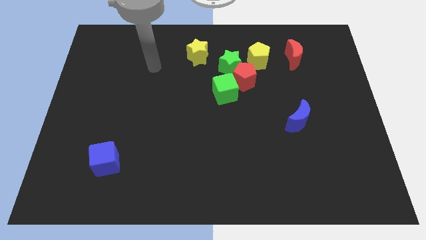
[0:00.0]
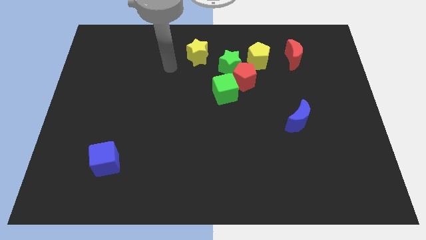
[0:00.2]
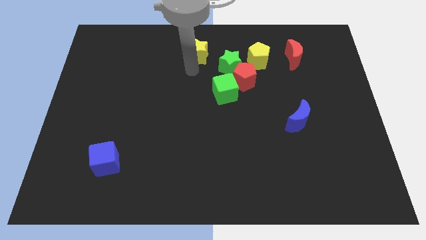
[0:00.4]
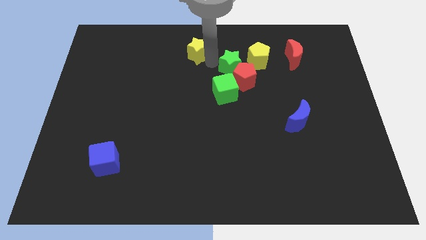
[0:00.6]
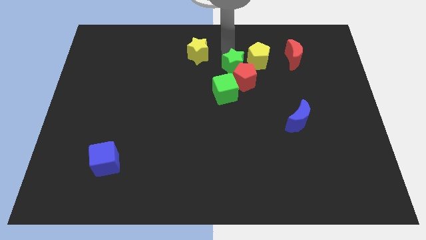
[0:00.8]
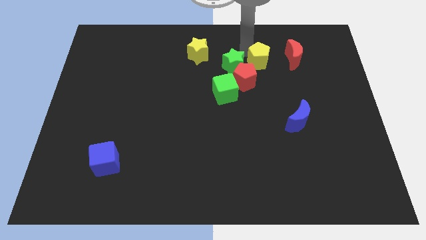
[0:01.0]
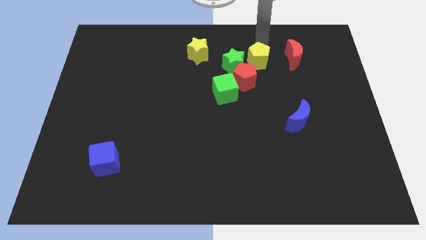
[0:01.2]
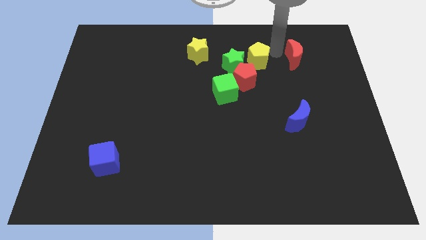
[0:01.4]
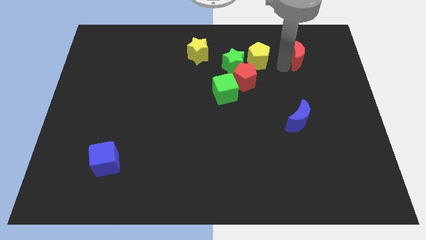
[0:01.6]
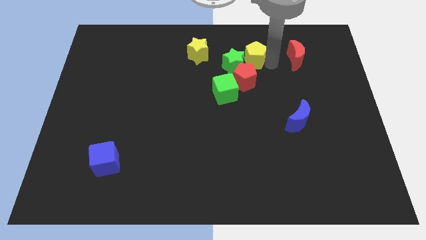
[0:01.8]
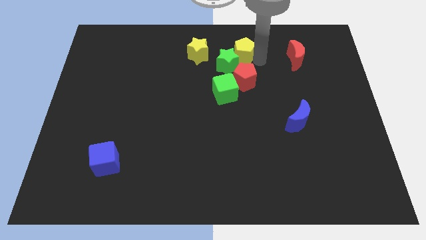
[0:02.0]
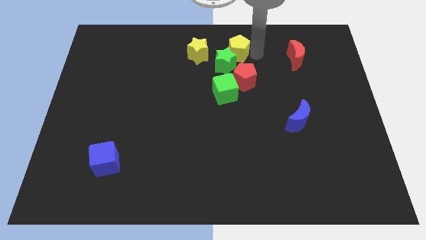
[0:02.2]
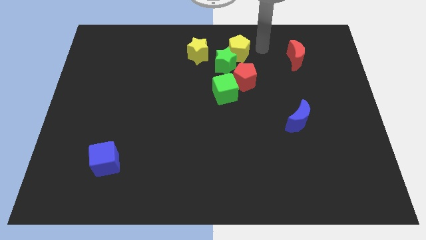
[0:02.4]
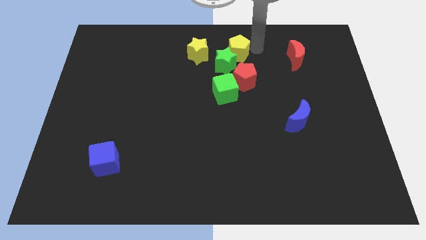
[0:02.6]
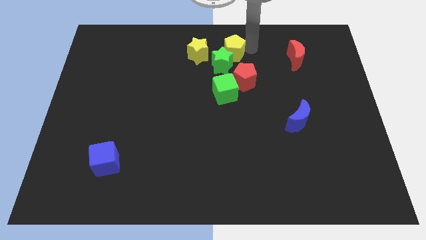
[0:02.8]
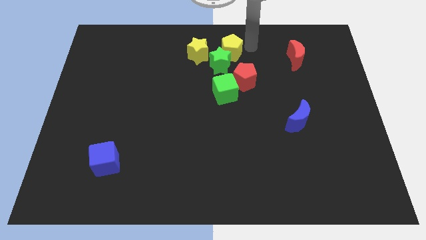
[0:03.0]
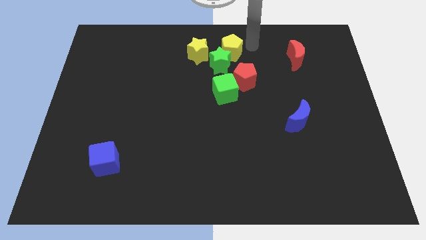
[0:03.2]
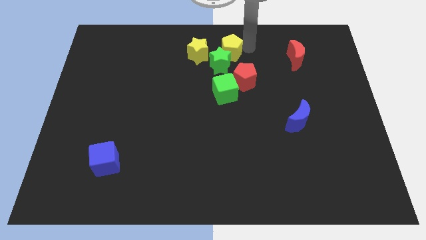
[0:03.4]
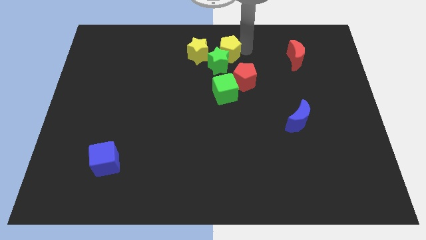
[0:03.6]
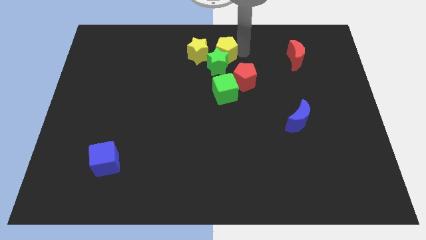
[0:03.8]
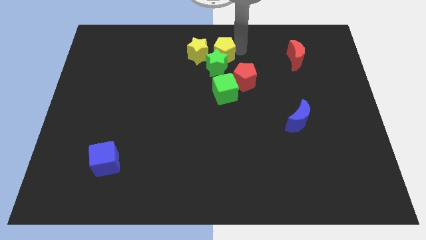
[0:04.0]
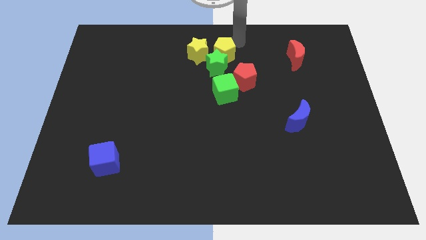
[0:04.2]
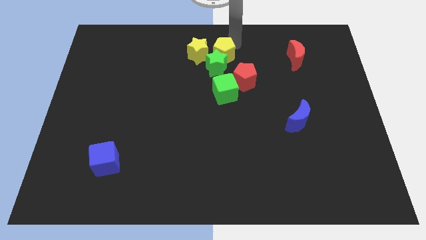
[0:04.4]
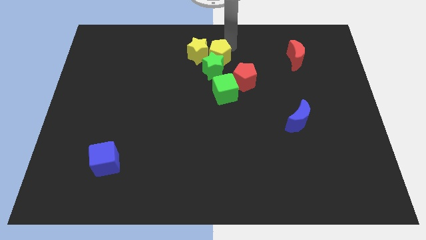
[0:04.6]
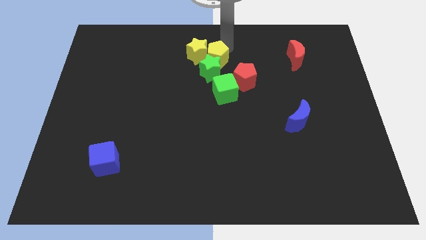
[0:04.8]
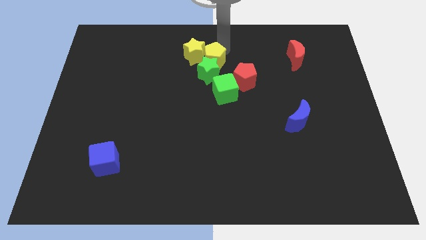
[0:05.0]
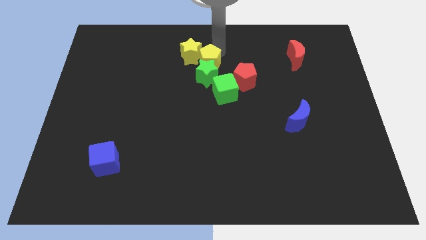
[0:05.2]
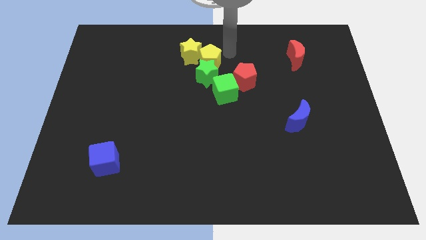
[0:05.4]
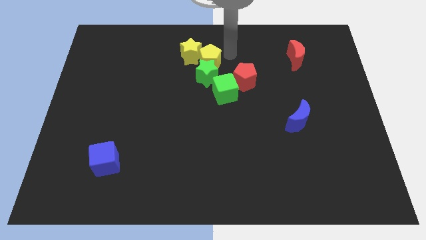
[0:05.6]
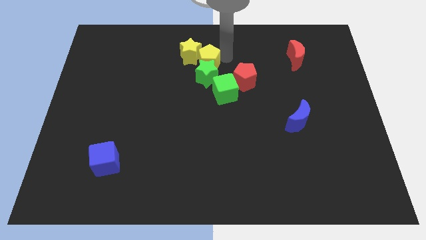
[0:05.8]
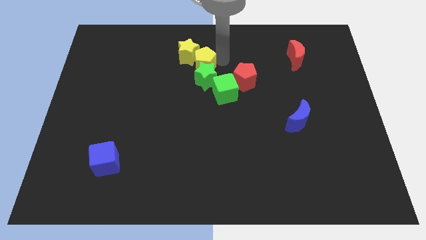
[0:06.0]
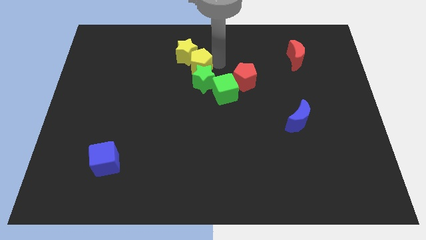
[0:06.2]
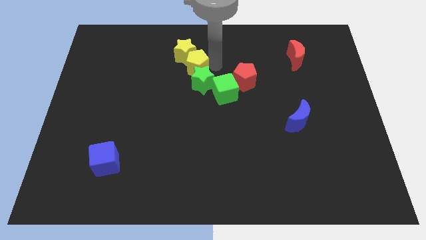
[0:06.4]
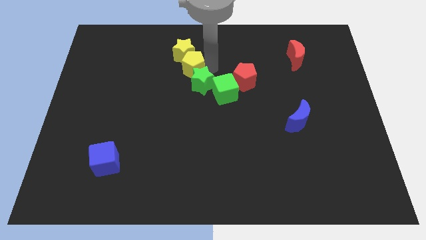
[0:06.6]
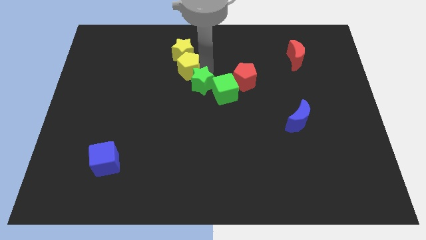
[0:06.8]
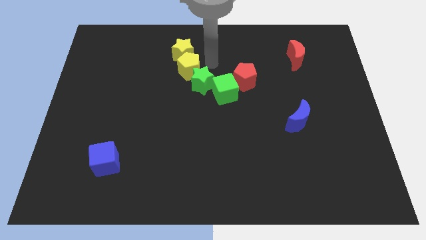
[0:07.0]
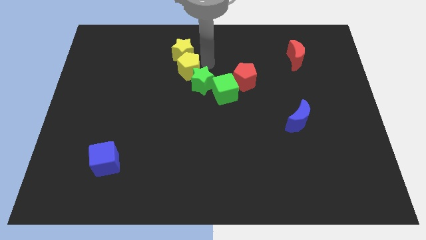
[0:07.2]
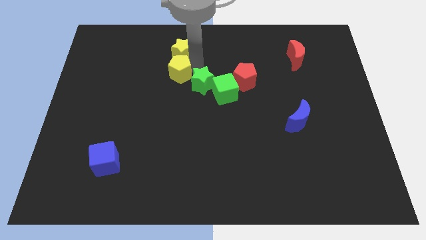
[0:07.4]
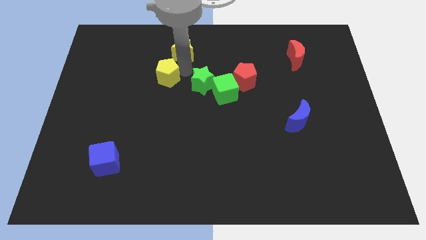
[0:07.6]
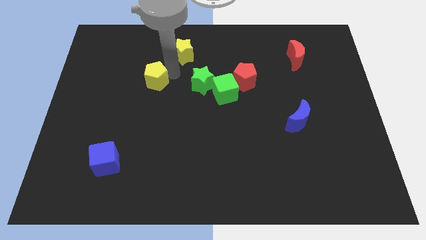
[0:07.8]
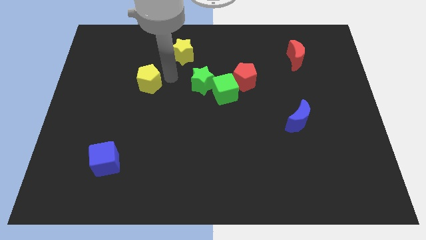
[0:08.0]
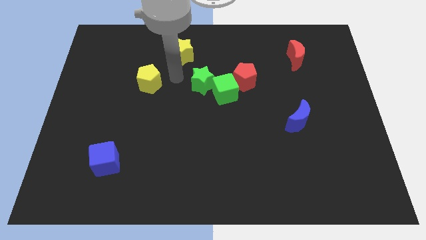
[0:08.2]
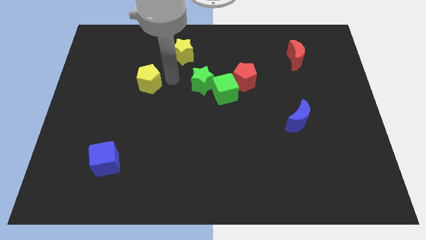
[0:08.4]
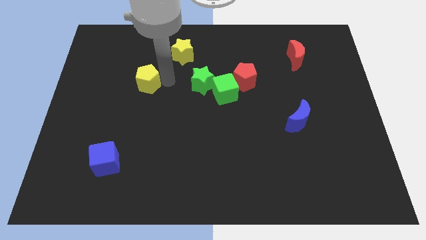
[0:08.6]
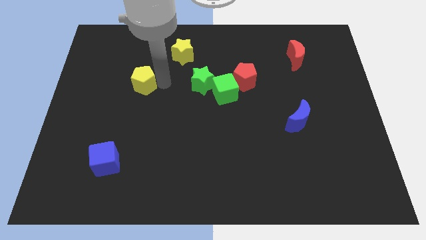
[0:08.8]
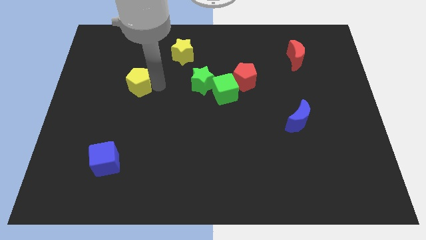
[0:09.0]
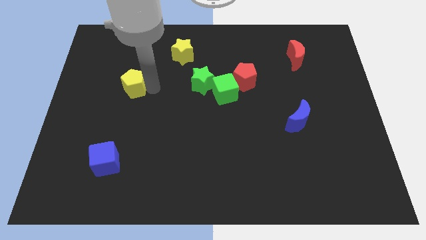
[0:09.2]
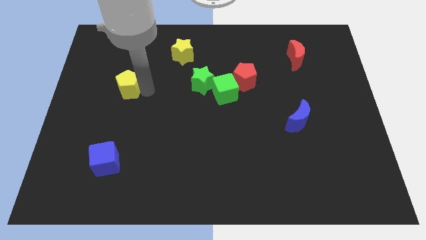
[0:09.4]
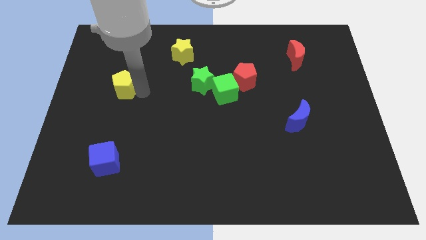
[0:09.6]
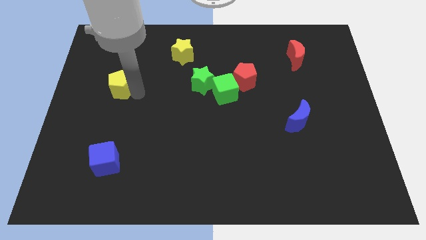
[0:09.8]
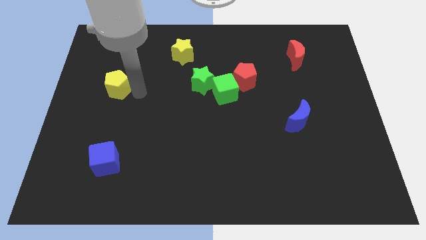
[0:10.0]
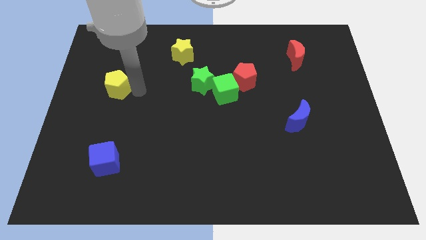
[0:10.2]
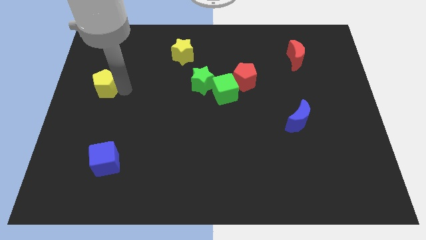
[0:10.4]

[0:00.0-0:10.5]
put the yellow pentagon to the left side of the board

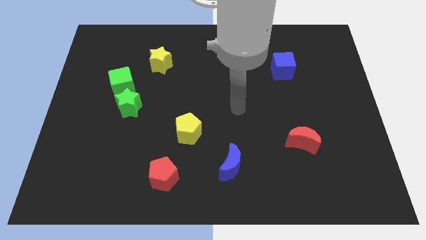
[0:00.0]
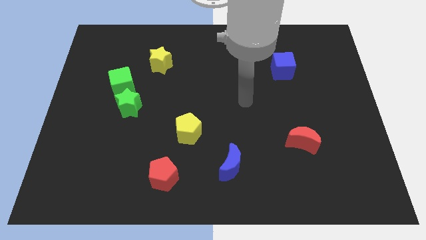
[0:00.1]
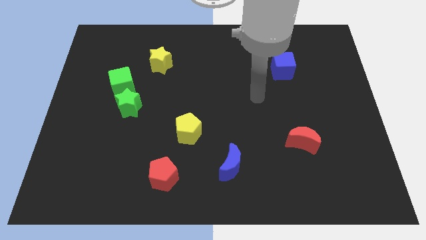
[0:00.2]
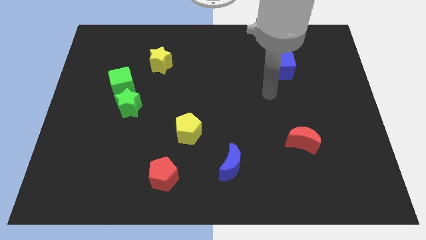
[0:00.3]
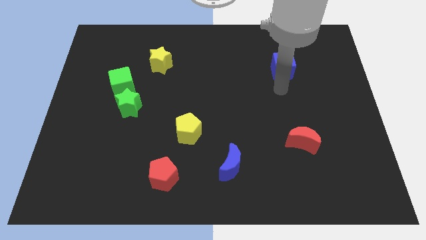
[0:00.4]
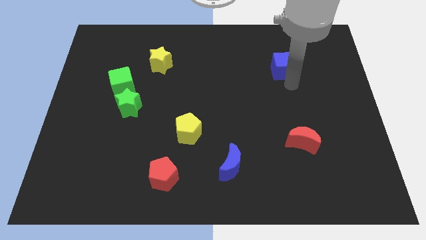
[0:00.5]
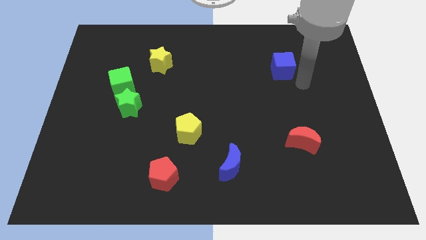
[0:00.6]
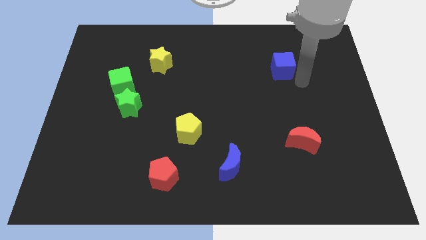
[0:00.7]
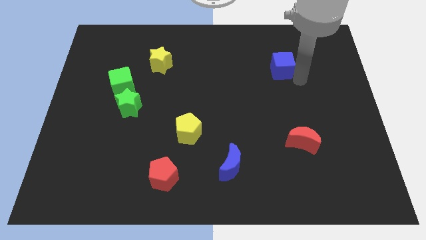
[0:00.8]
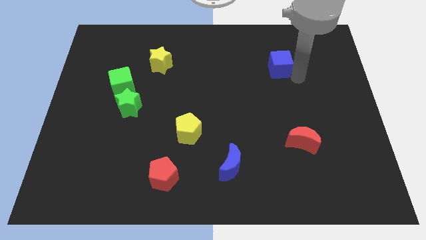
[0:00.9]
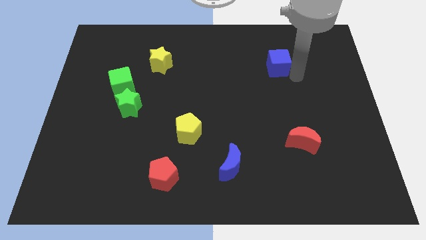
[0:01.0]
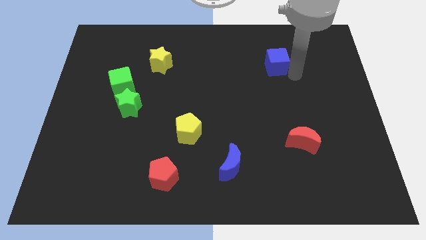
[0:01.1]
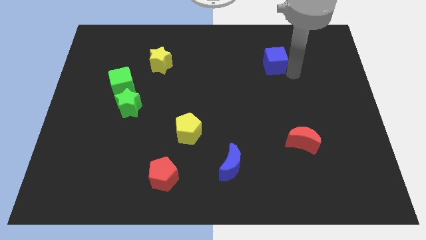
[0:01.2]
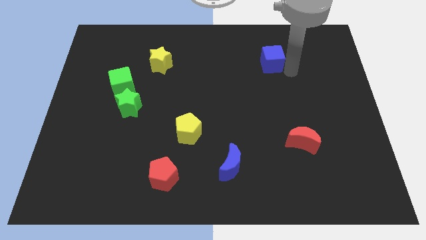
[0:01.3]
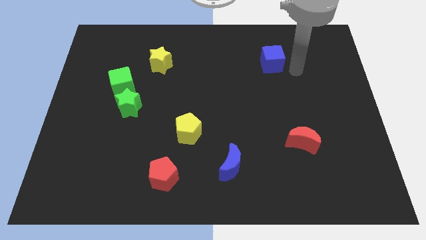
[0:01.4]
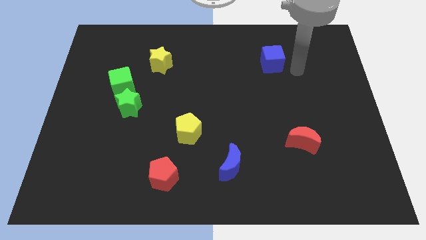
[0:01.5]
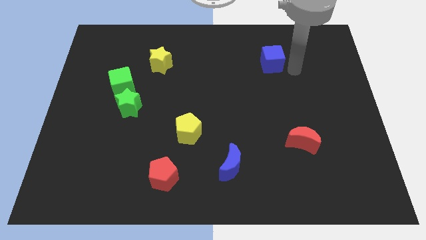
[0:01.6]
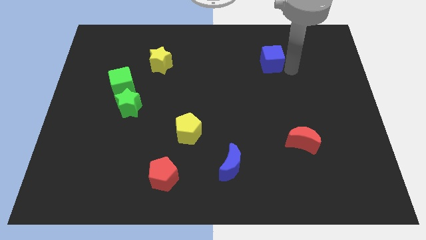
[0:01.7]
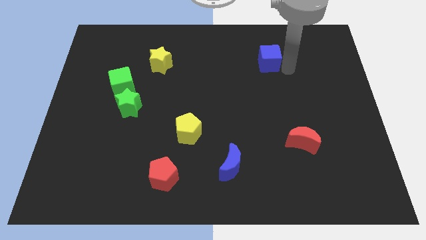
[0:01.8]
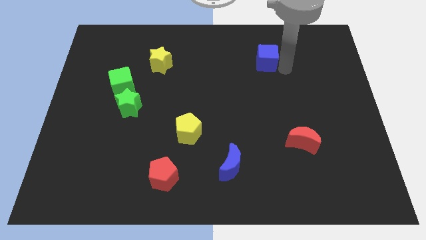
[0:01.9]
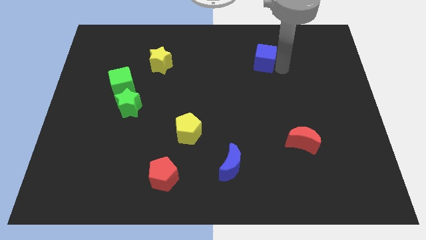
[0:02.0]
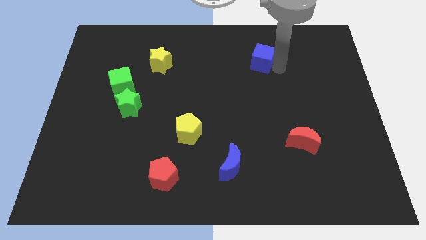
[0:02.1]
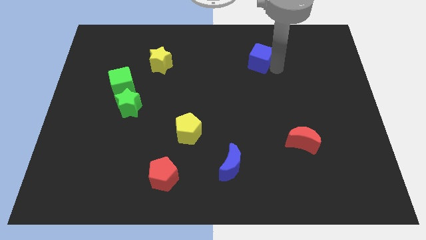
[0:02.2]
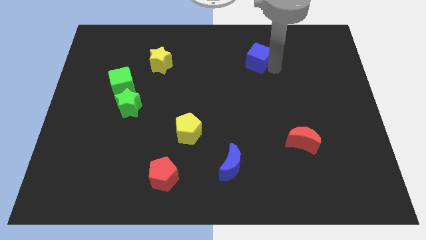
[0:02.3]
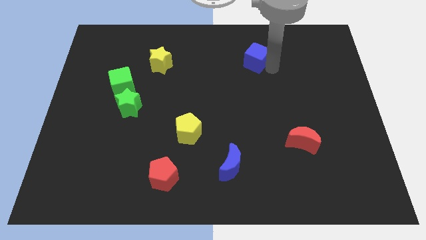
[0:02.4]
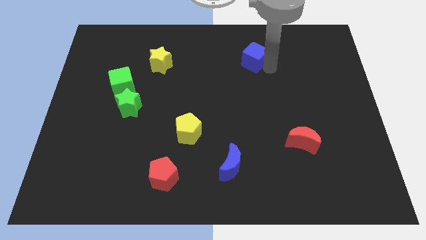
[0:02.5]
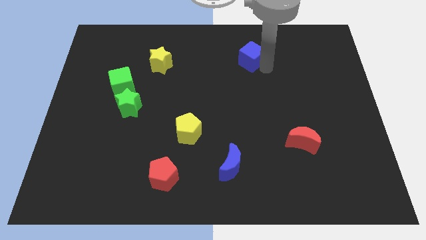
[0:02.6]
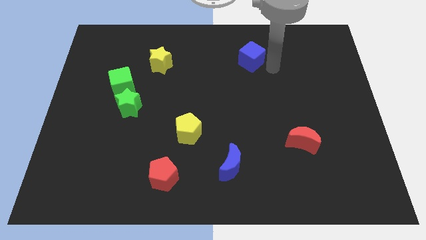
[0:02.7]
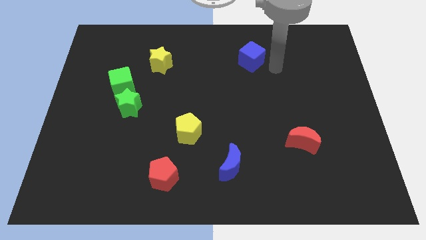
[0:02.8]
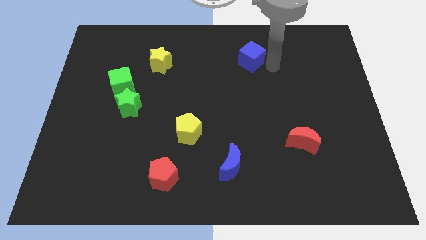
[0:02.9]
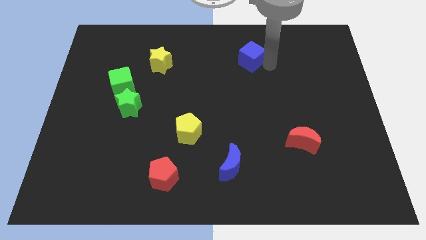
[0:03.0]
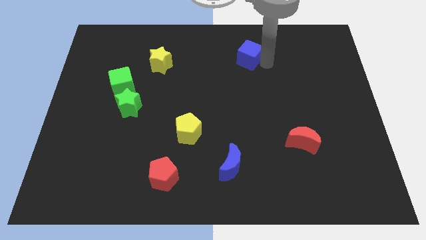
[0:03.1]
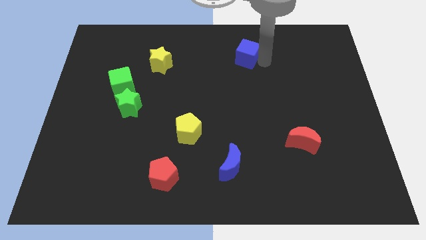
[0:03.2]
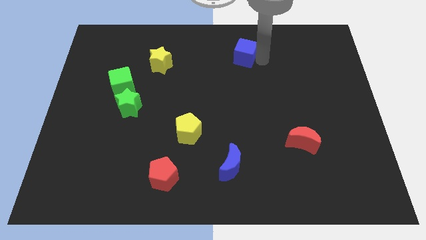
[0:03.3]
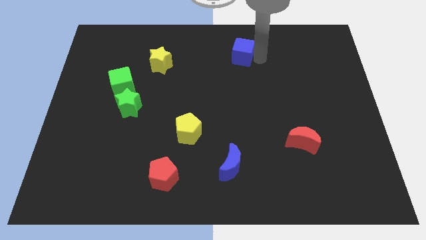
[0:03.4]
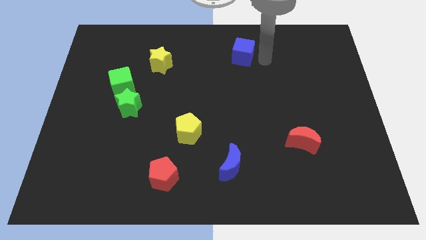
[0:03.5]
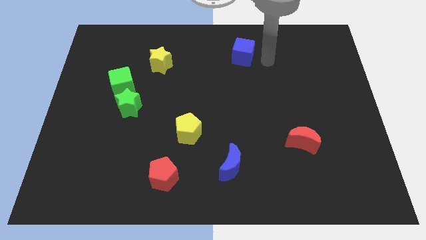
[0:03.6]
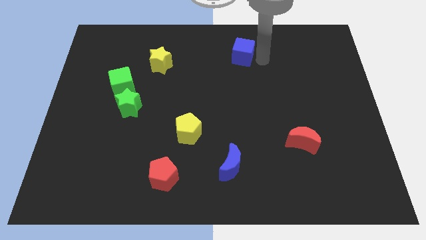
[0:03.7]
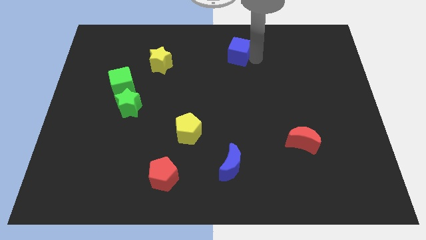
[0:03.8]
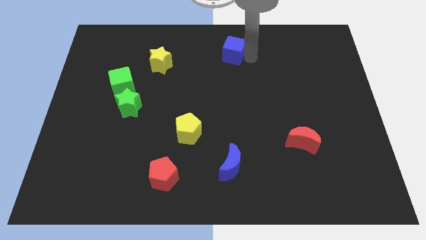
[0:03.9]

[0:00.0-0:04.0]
move the blue cube to the top side
